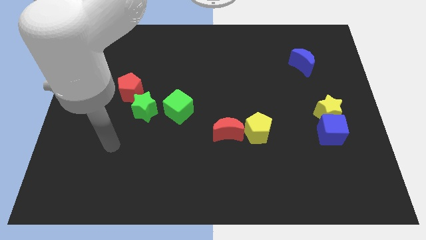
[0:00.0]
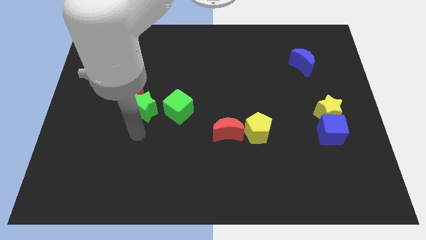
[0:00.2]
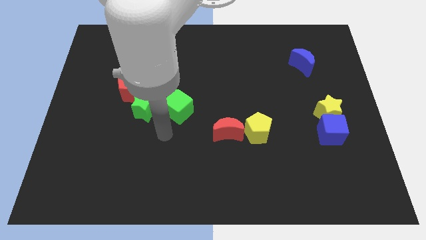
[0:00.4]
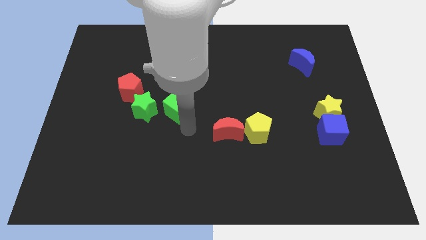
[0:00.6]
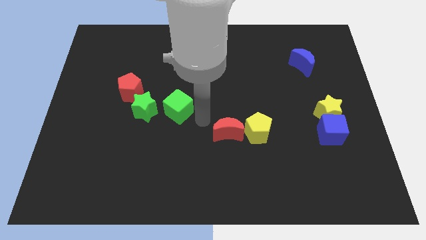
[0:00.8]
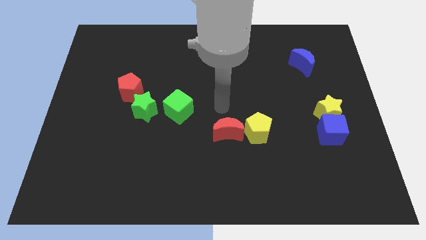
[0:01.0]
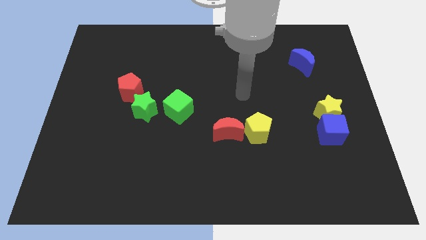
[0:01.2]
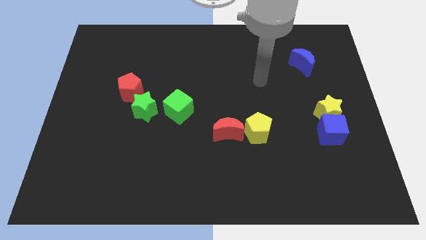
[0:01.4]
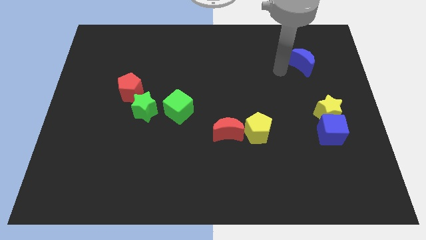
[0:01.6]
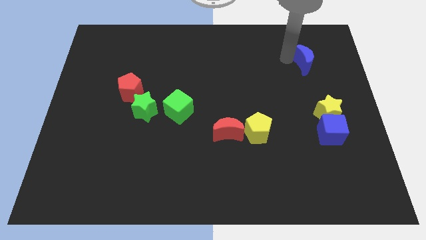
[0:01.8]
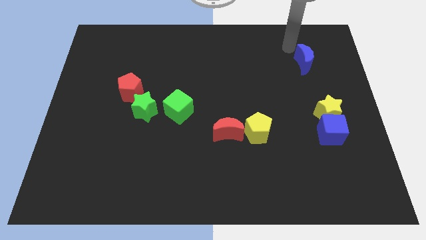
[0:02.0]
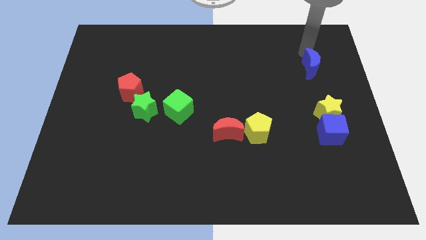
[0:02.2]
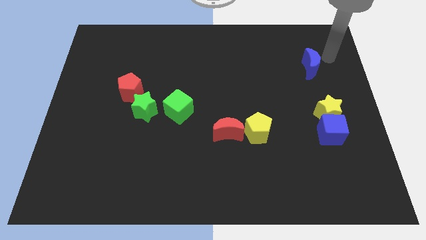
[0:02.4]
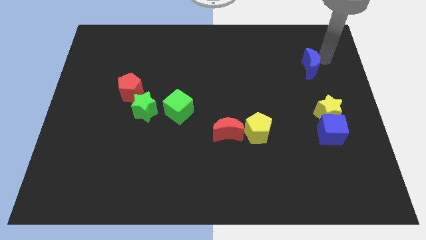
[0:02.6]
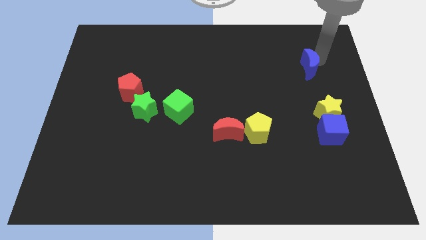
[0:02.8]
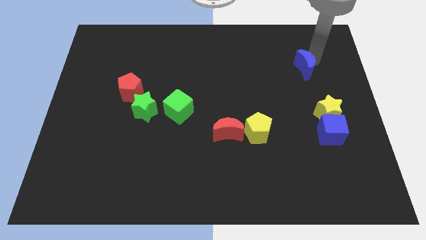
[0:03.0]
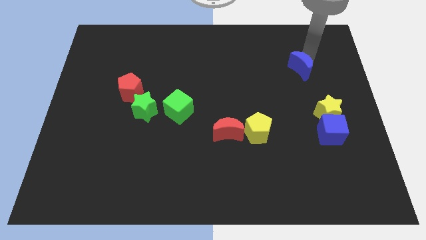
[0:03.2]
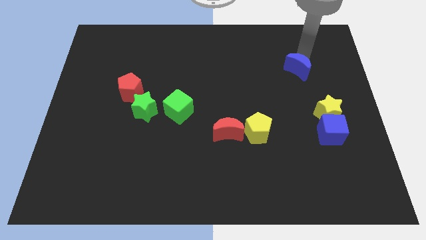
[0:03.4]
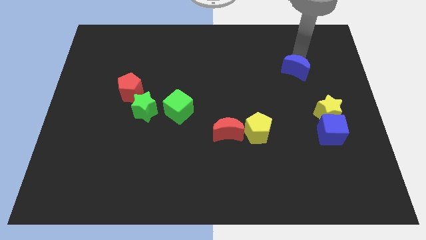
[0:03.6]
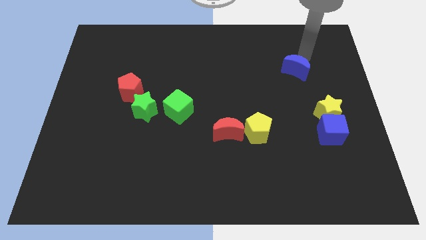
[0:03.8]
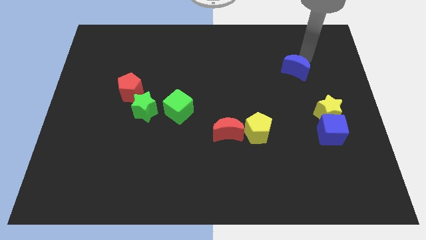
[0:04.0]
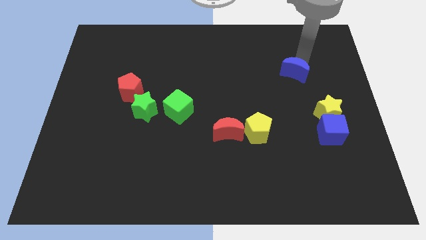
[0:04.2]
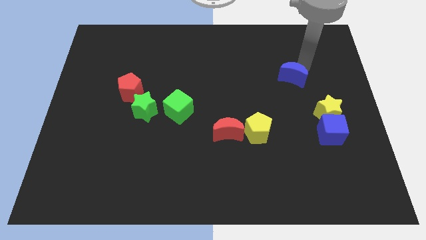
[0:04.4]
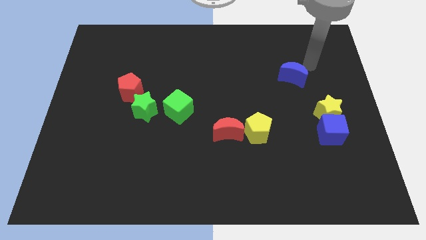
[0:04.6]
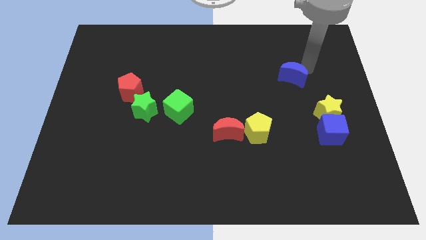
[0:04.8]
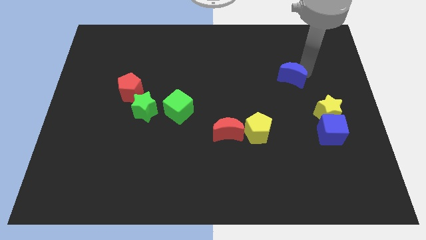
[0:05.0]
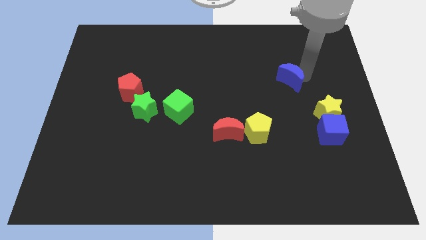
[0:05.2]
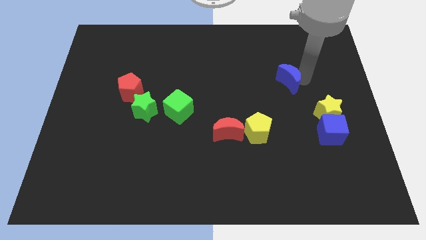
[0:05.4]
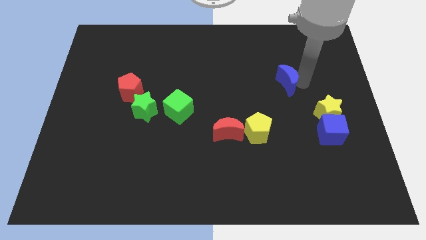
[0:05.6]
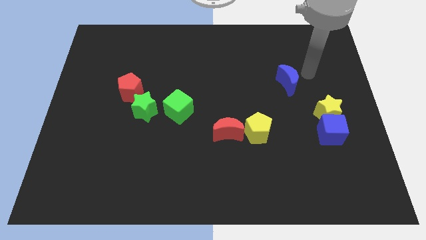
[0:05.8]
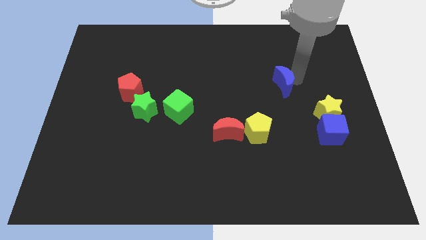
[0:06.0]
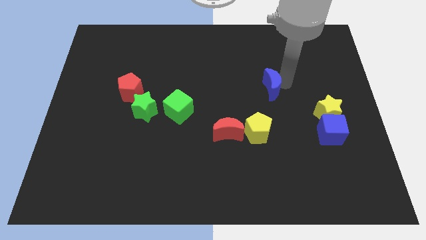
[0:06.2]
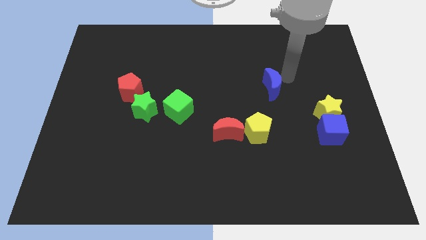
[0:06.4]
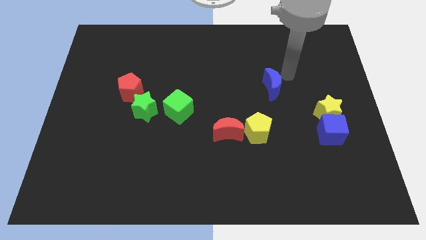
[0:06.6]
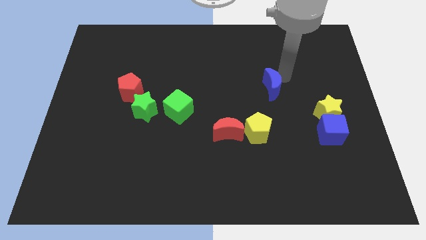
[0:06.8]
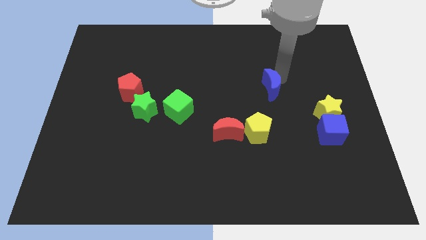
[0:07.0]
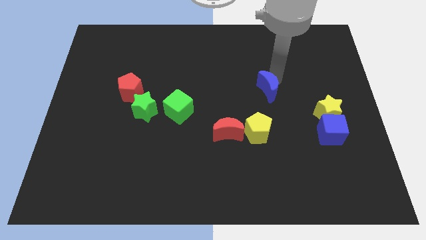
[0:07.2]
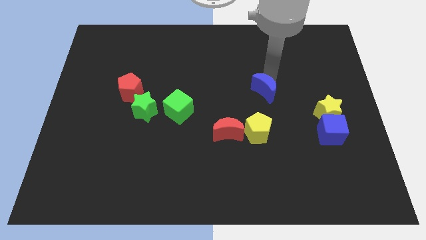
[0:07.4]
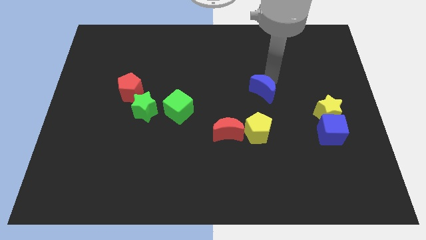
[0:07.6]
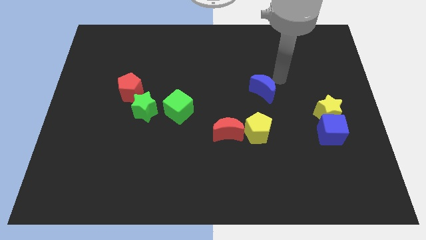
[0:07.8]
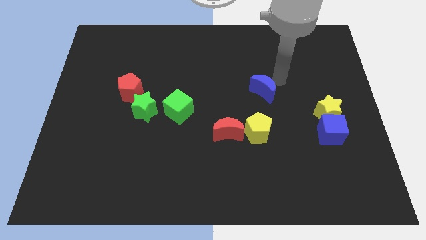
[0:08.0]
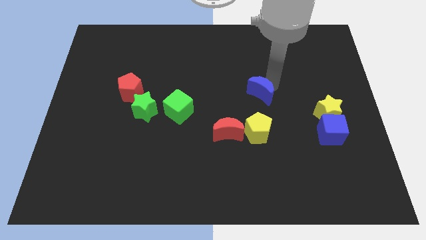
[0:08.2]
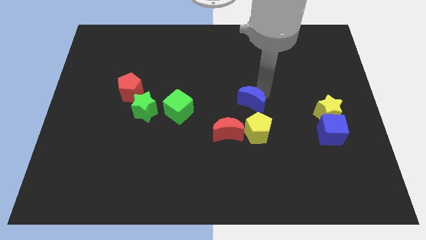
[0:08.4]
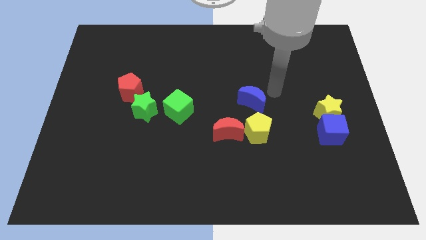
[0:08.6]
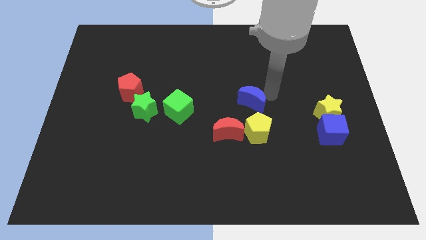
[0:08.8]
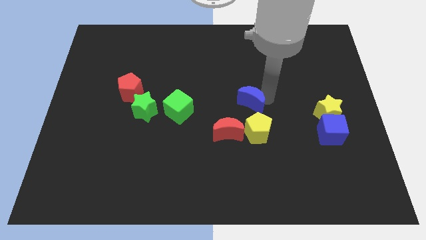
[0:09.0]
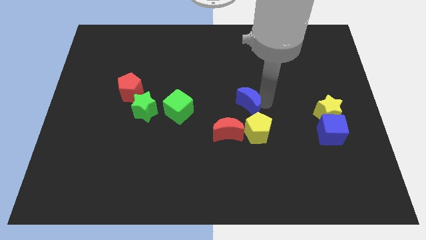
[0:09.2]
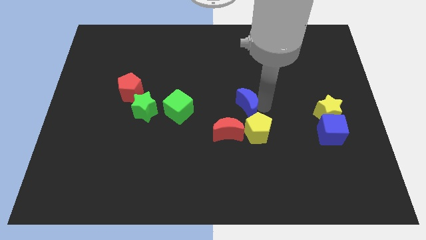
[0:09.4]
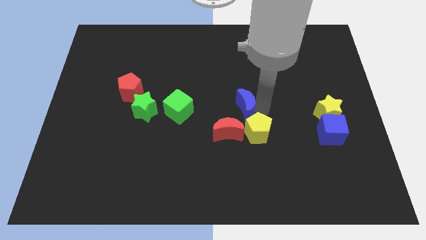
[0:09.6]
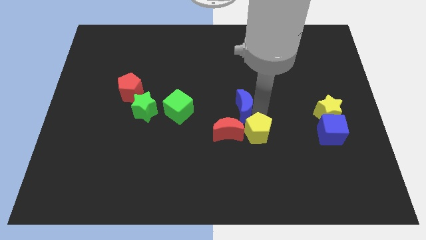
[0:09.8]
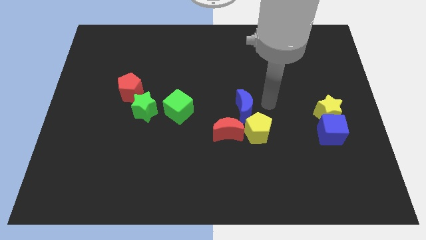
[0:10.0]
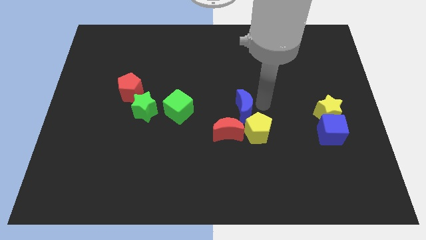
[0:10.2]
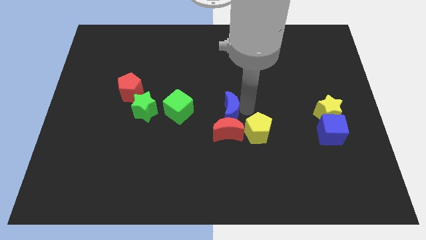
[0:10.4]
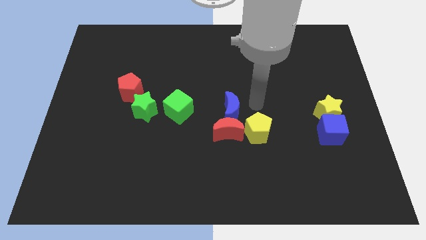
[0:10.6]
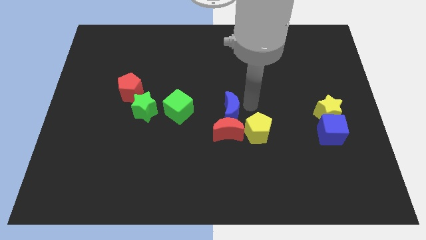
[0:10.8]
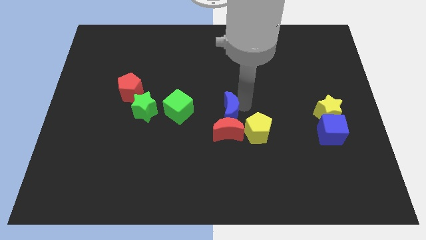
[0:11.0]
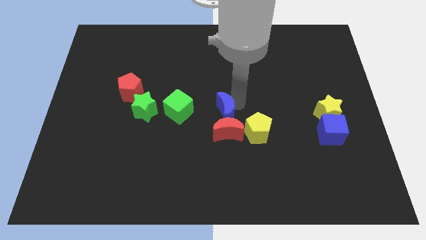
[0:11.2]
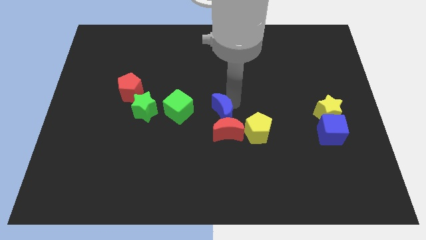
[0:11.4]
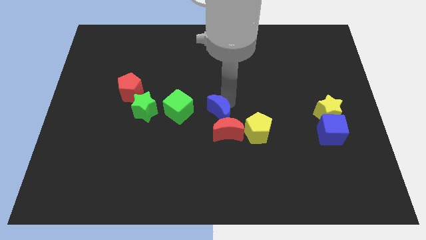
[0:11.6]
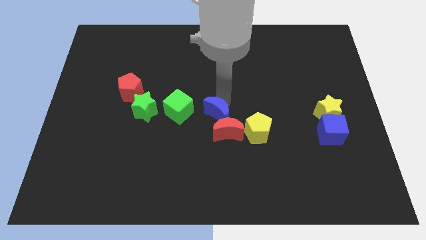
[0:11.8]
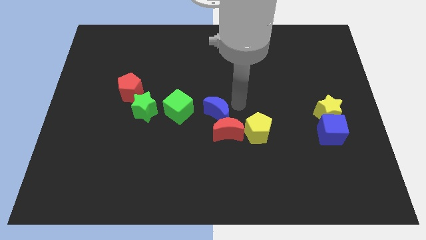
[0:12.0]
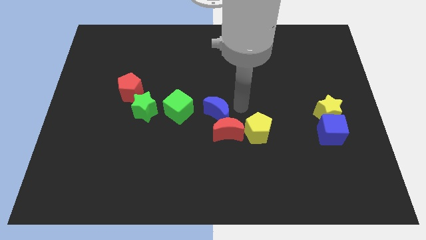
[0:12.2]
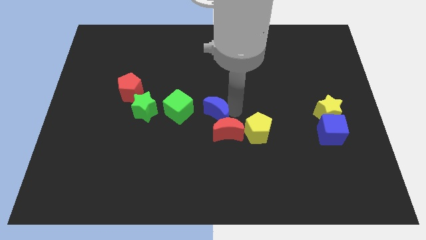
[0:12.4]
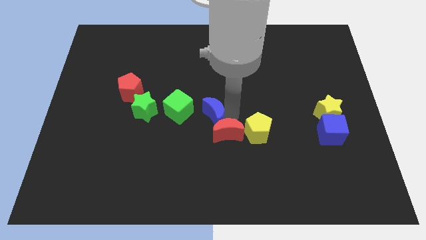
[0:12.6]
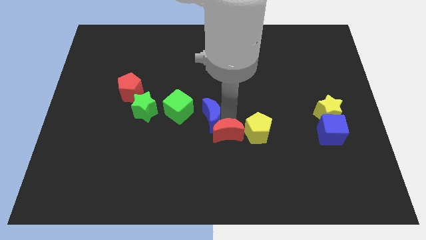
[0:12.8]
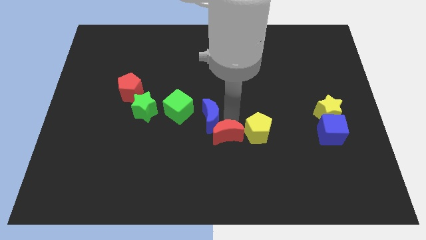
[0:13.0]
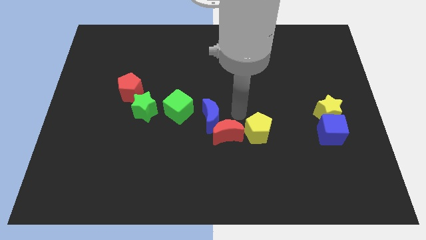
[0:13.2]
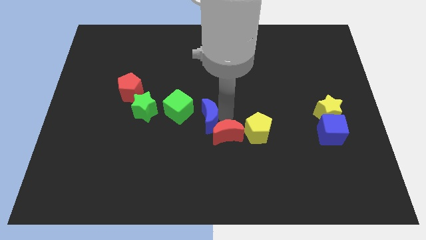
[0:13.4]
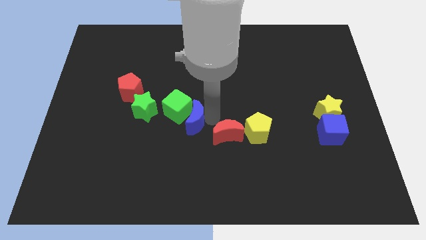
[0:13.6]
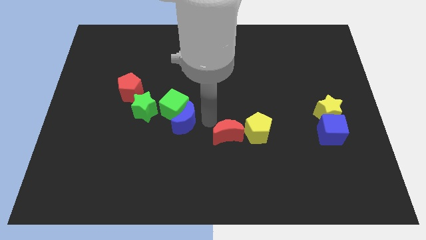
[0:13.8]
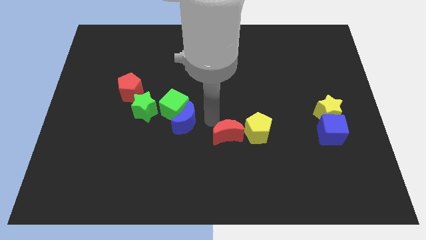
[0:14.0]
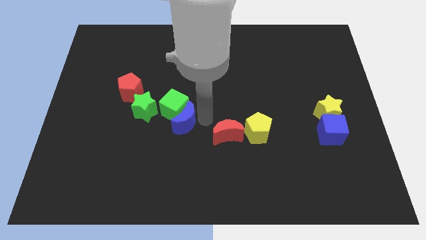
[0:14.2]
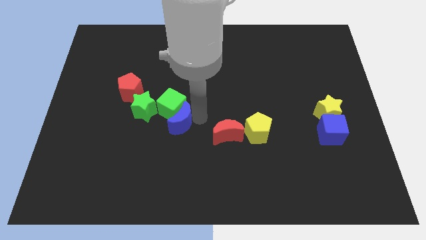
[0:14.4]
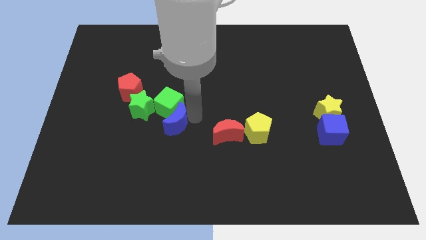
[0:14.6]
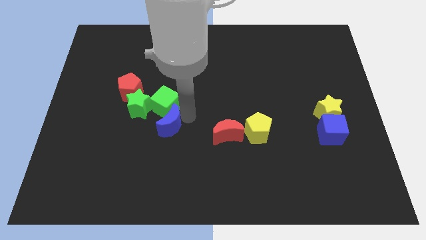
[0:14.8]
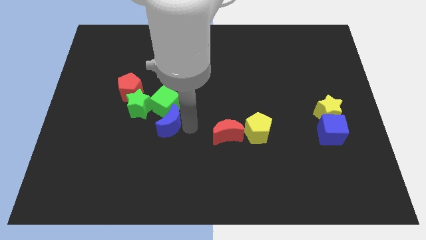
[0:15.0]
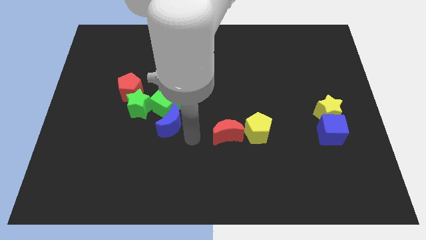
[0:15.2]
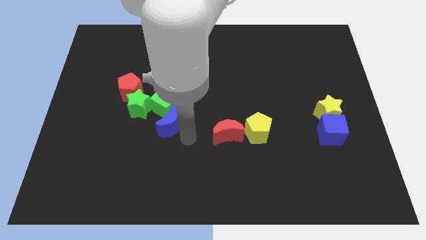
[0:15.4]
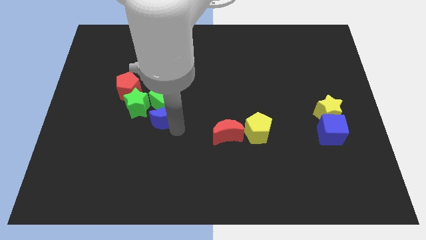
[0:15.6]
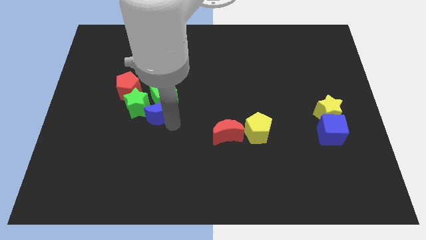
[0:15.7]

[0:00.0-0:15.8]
push the blue moon to the bottom right of the red pentagon
